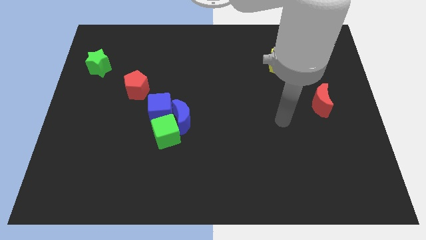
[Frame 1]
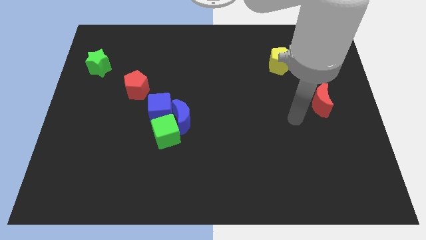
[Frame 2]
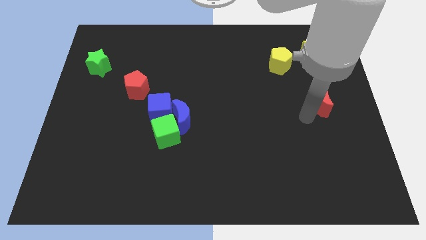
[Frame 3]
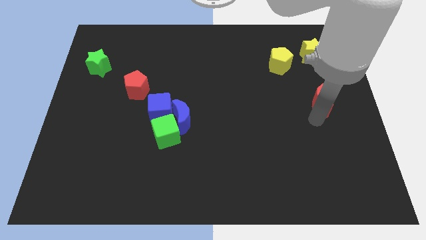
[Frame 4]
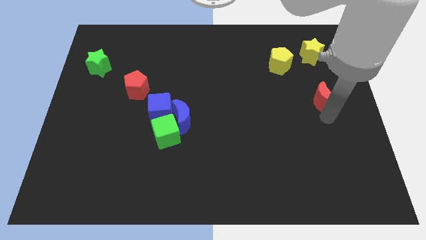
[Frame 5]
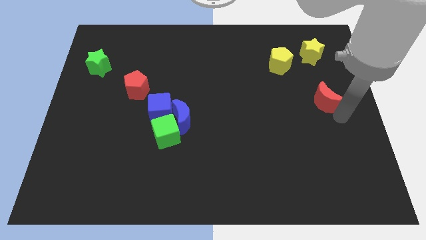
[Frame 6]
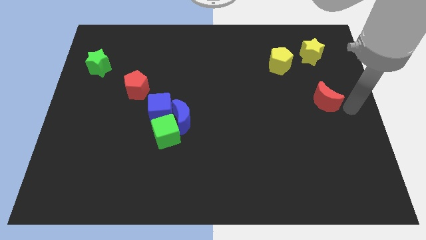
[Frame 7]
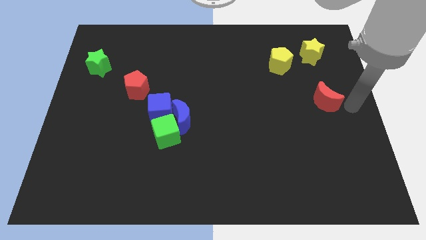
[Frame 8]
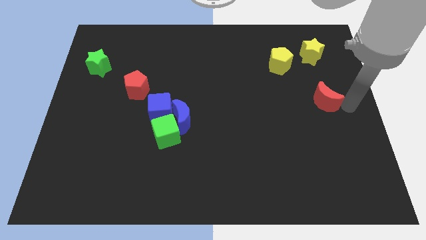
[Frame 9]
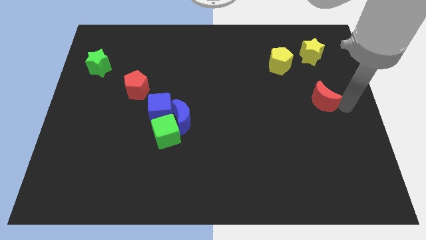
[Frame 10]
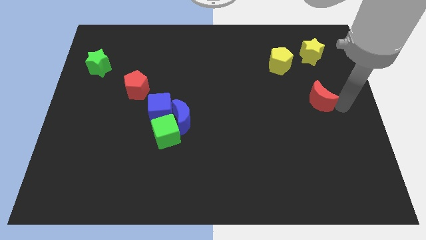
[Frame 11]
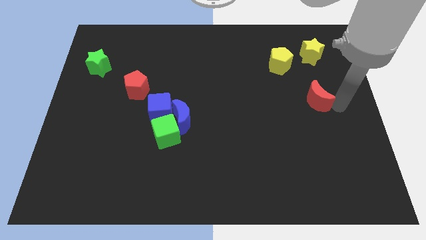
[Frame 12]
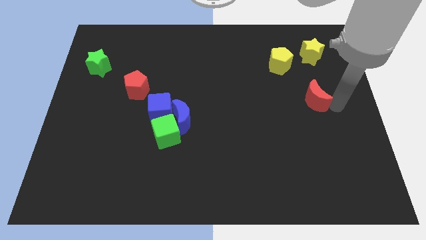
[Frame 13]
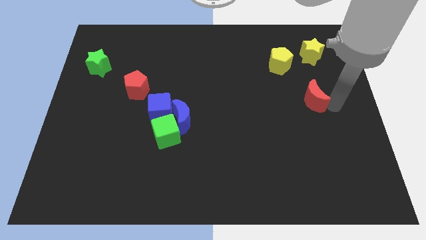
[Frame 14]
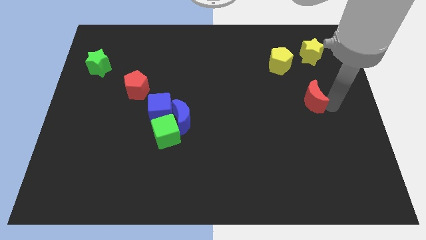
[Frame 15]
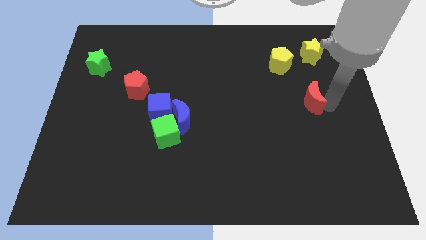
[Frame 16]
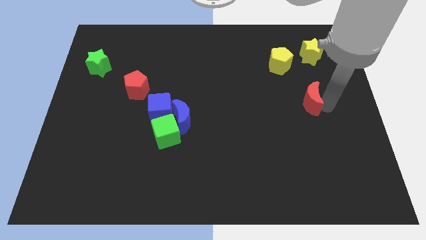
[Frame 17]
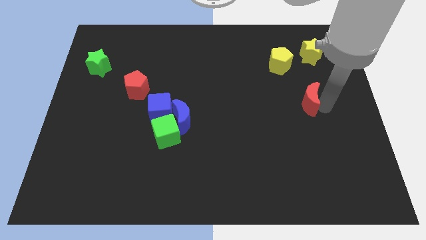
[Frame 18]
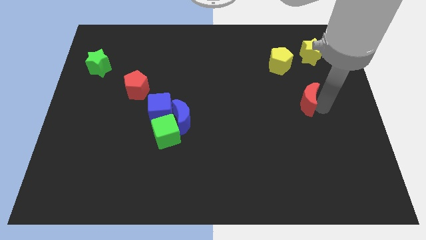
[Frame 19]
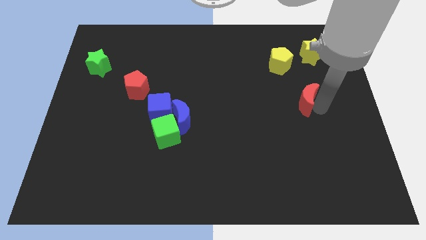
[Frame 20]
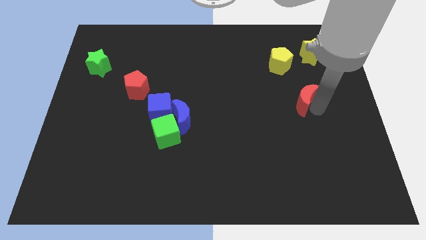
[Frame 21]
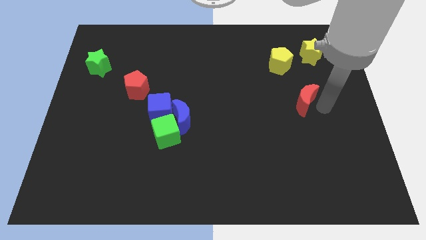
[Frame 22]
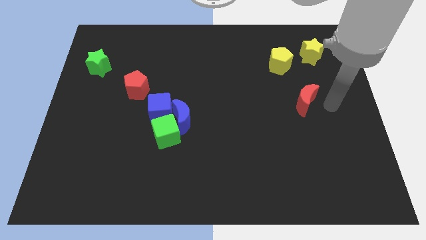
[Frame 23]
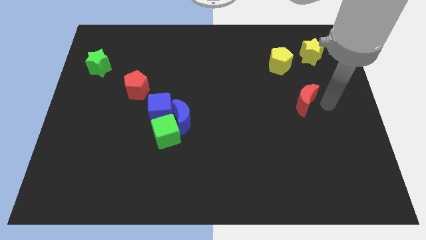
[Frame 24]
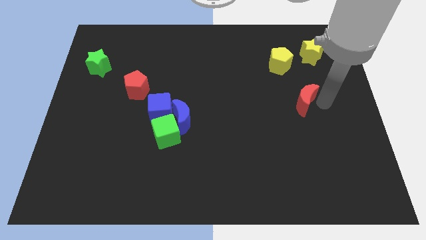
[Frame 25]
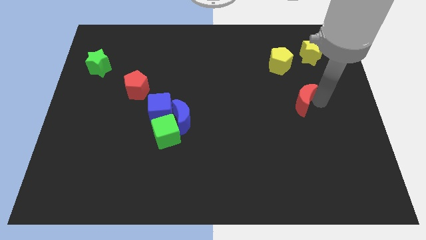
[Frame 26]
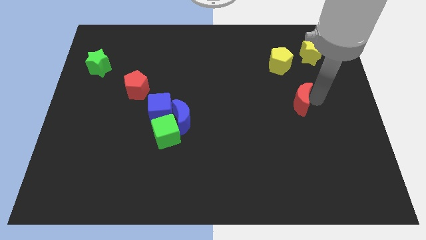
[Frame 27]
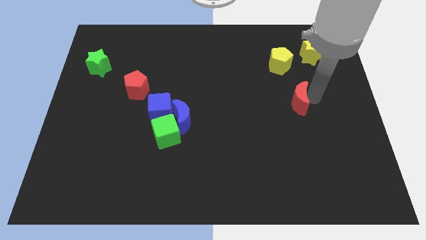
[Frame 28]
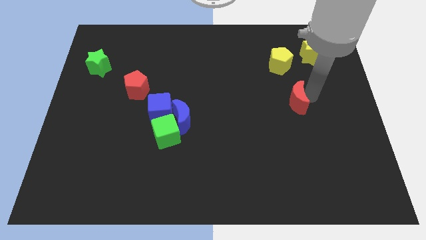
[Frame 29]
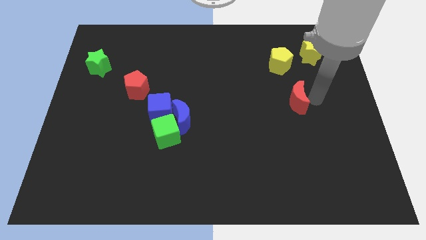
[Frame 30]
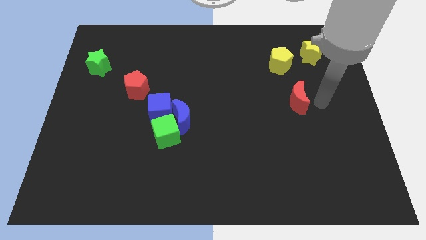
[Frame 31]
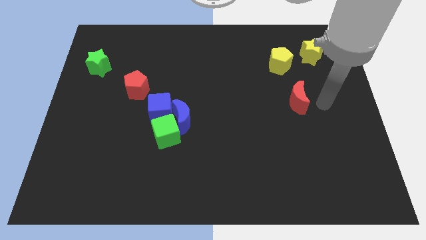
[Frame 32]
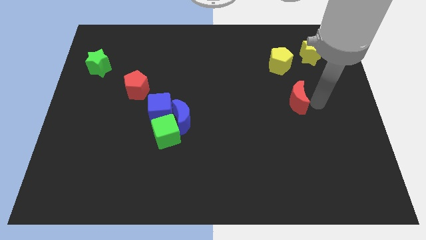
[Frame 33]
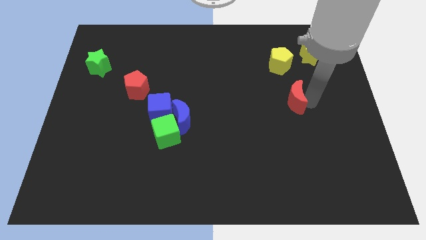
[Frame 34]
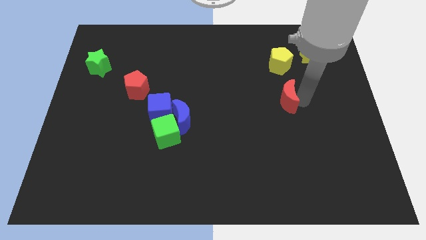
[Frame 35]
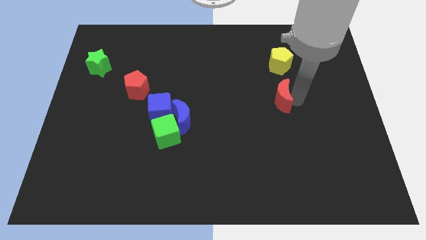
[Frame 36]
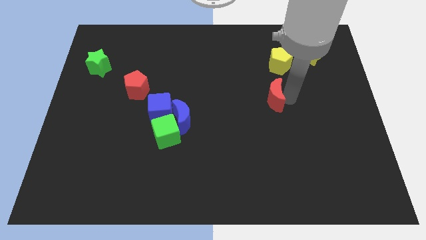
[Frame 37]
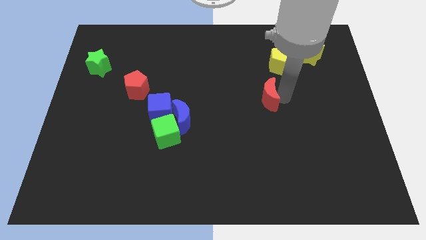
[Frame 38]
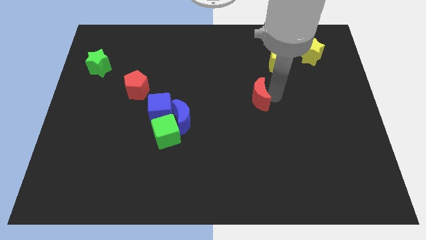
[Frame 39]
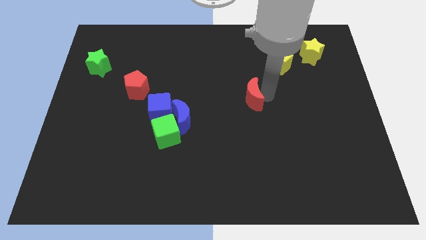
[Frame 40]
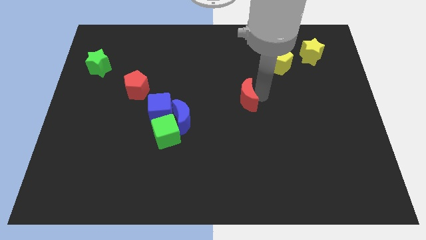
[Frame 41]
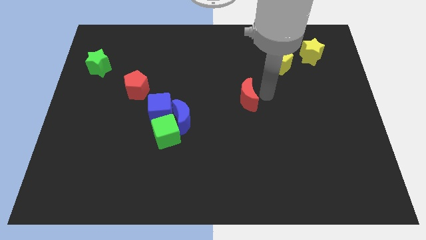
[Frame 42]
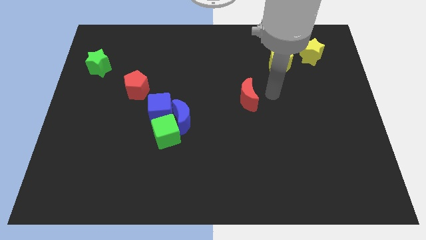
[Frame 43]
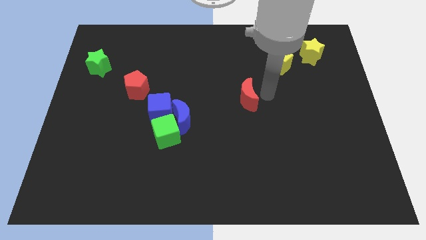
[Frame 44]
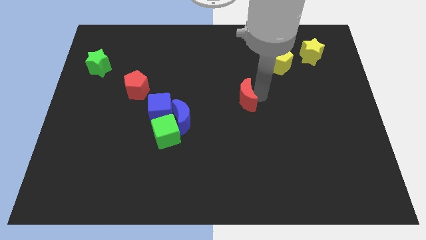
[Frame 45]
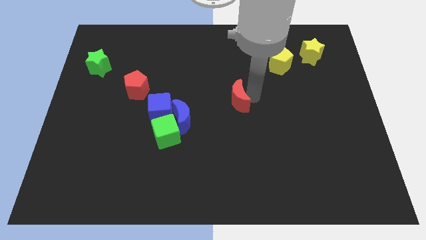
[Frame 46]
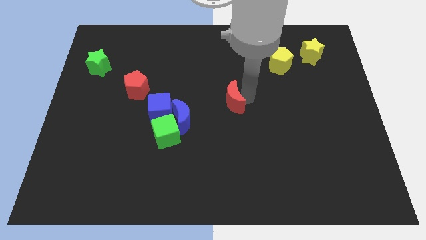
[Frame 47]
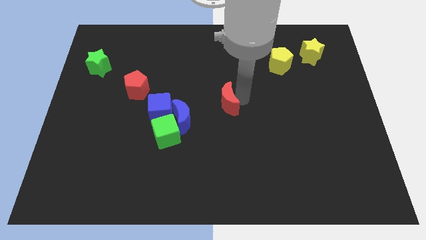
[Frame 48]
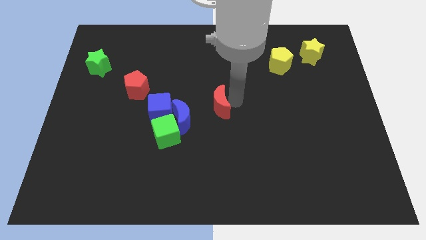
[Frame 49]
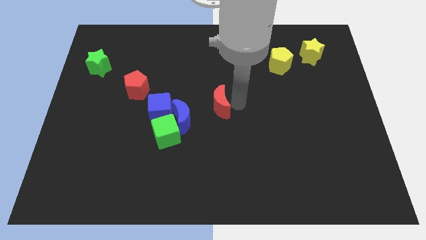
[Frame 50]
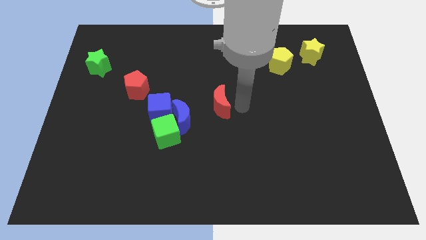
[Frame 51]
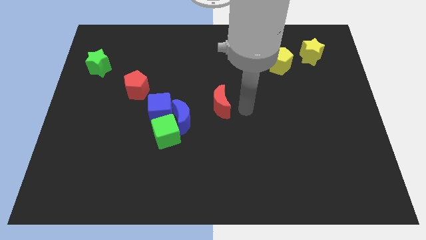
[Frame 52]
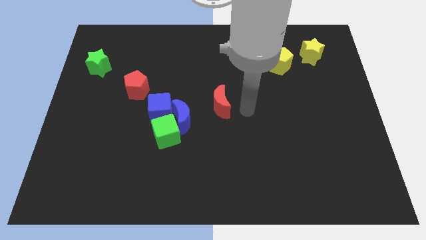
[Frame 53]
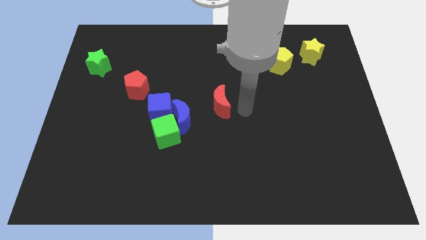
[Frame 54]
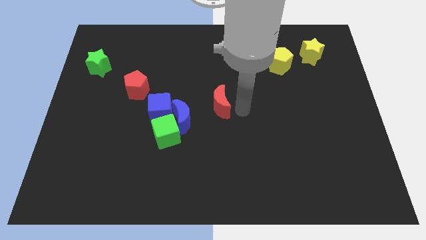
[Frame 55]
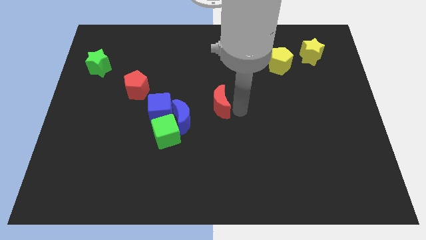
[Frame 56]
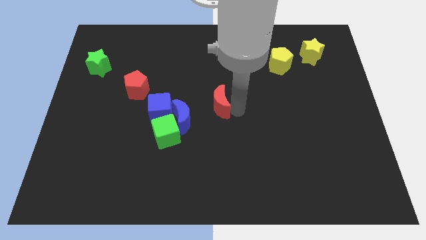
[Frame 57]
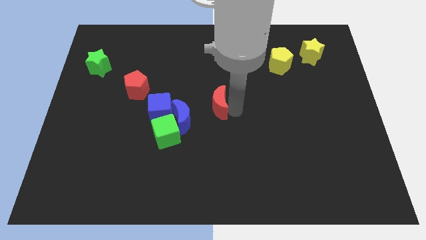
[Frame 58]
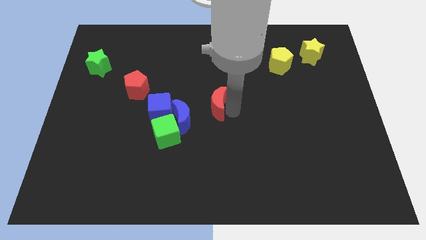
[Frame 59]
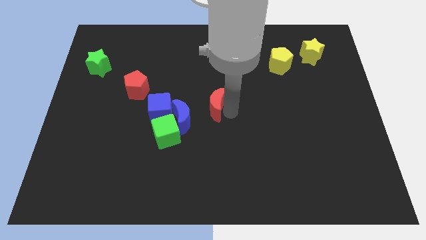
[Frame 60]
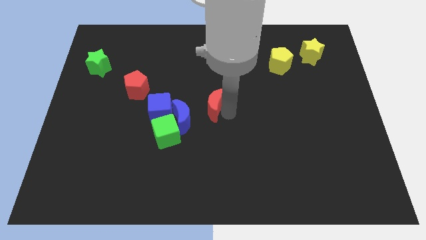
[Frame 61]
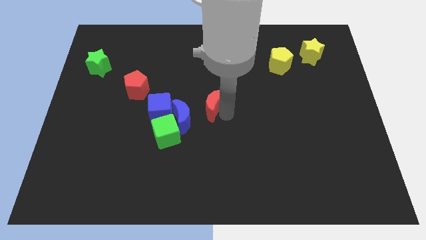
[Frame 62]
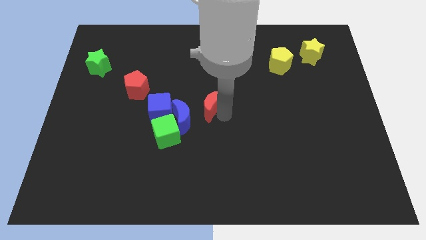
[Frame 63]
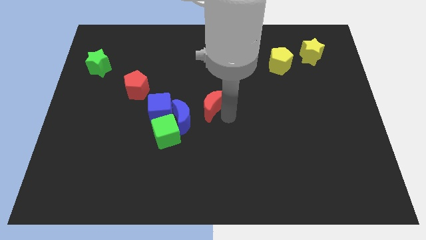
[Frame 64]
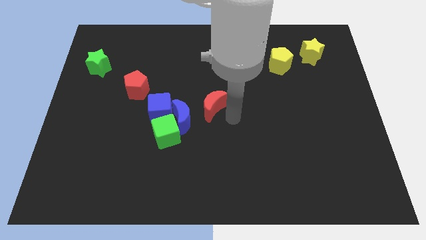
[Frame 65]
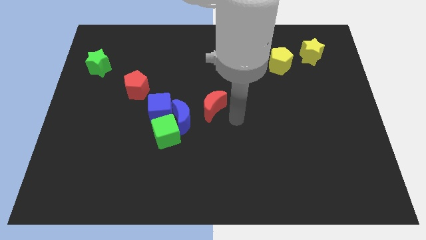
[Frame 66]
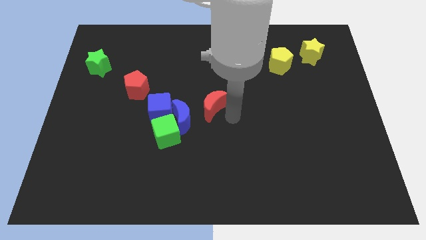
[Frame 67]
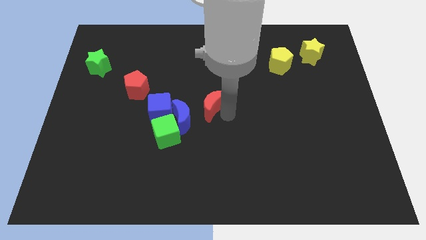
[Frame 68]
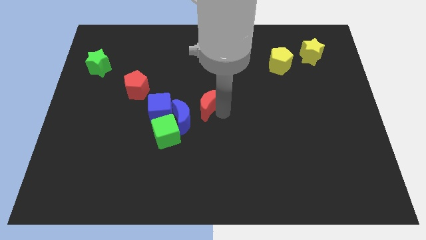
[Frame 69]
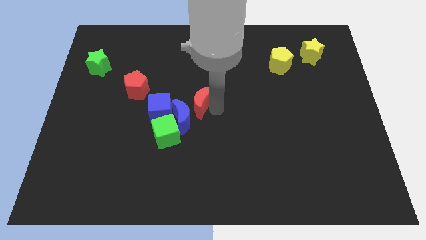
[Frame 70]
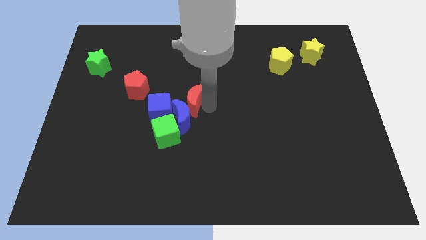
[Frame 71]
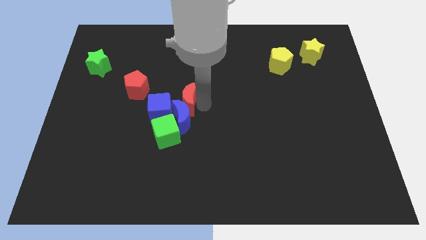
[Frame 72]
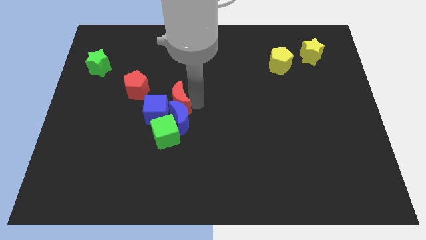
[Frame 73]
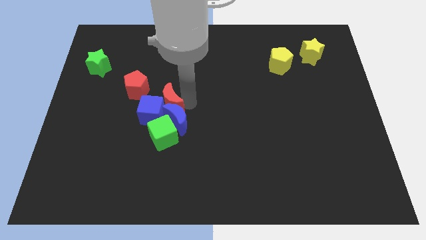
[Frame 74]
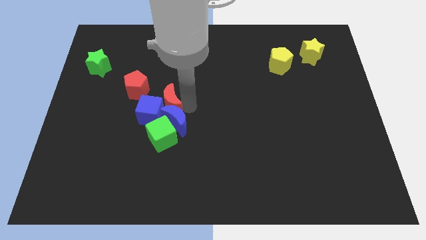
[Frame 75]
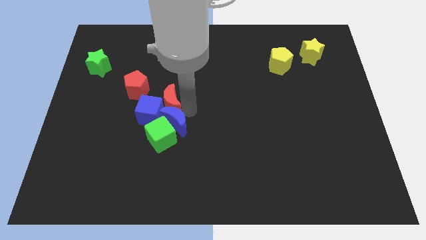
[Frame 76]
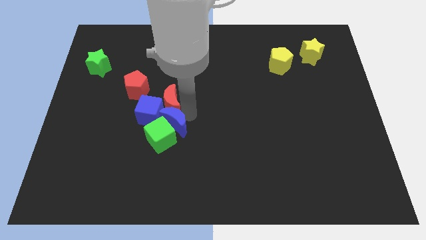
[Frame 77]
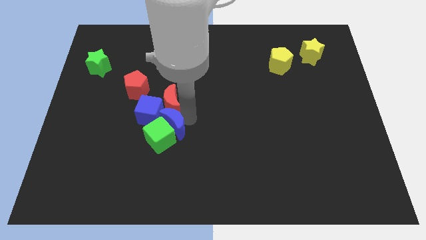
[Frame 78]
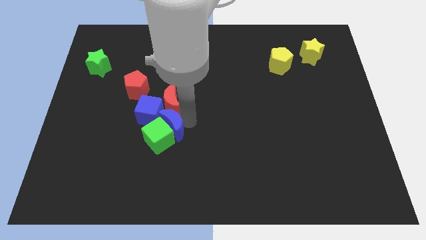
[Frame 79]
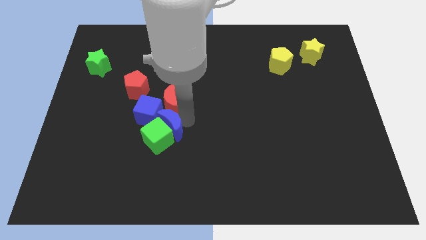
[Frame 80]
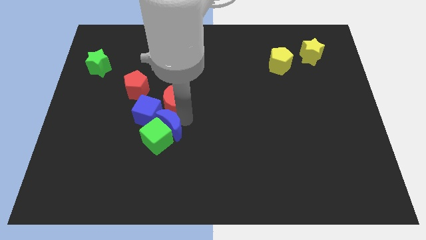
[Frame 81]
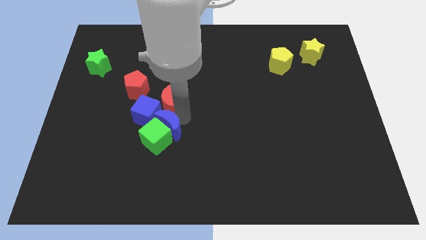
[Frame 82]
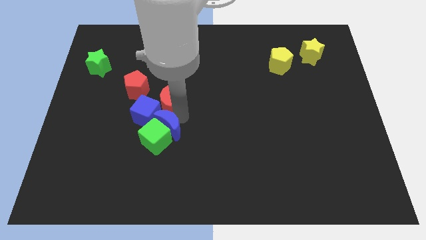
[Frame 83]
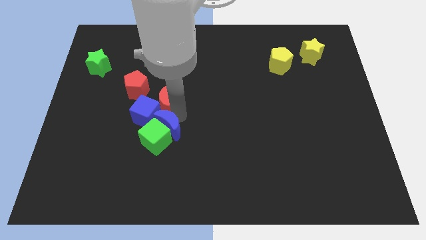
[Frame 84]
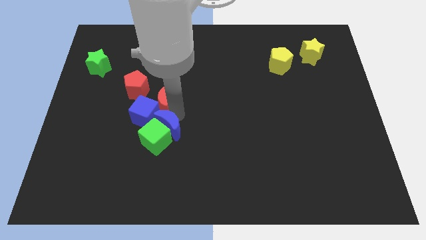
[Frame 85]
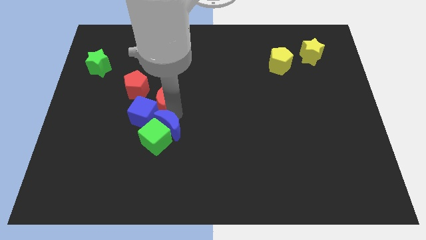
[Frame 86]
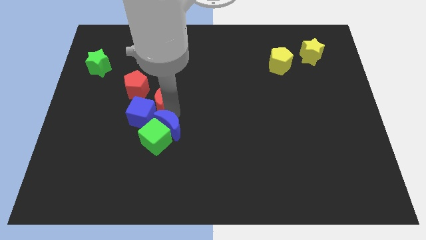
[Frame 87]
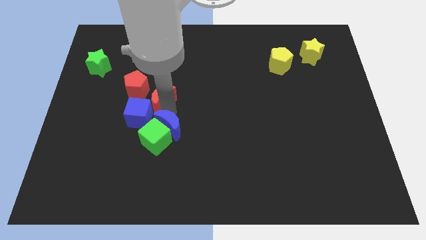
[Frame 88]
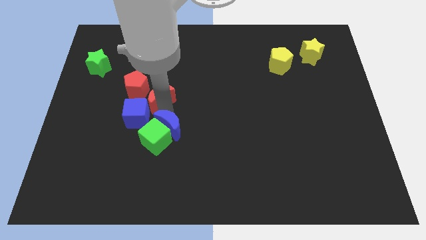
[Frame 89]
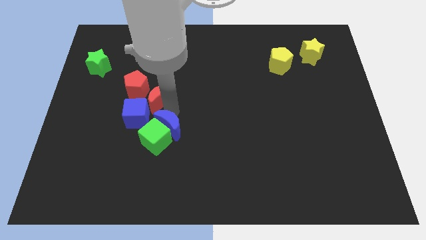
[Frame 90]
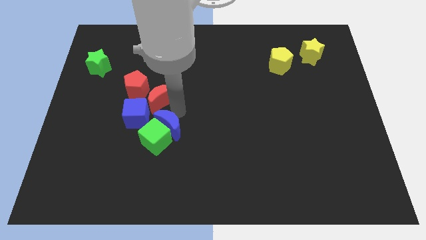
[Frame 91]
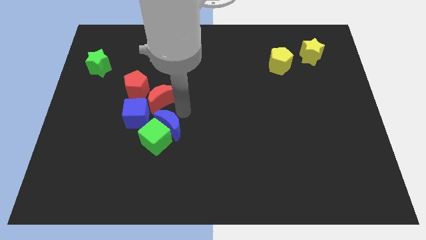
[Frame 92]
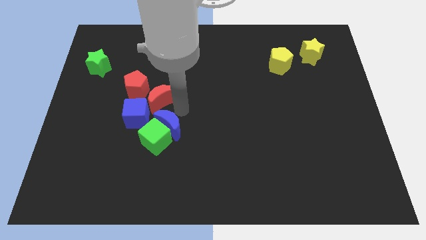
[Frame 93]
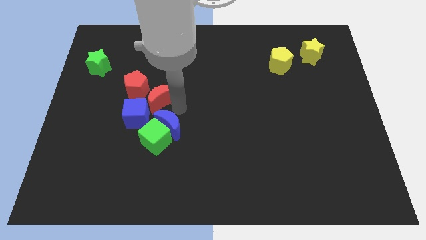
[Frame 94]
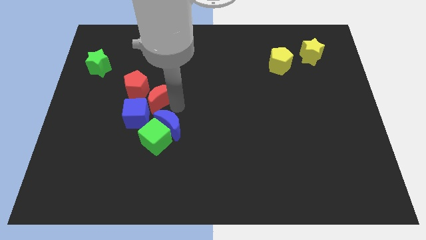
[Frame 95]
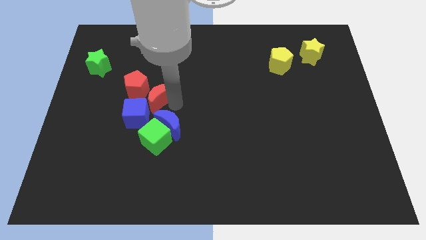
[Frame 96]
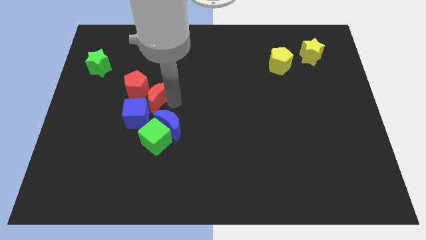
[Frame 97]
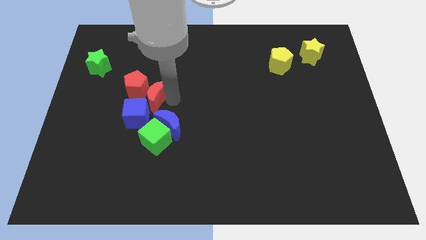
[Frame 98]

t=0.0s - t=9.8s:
push the red moon close to the red pentagon
